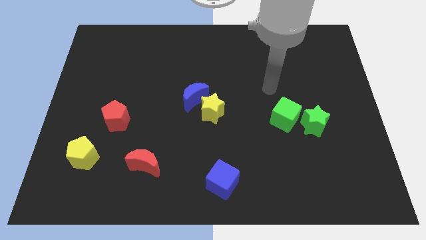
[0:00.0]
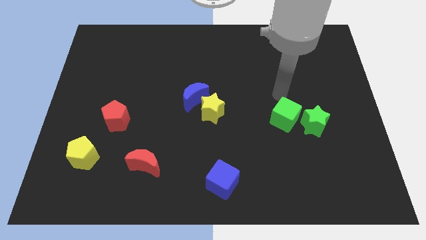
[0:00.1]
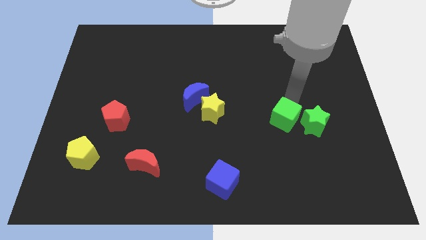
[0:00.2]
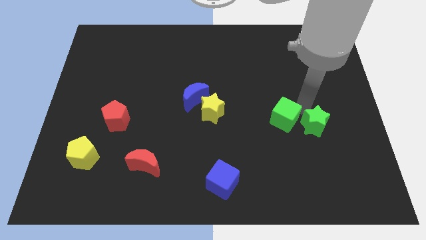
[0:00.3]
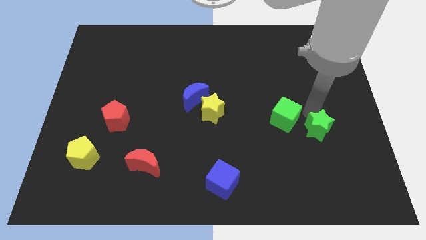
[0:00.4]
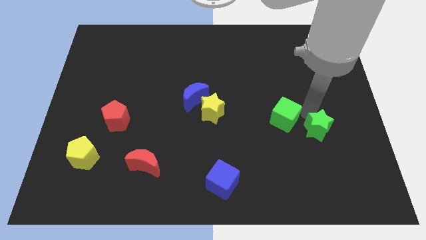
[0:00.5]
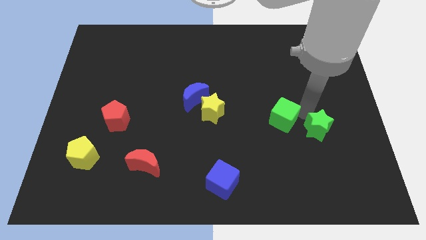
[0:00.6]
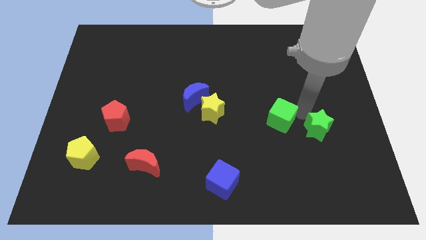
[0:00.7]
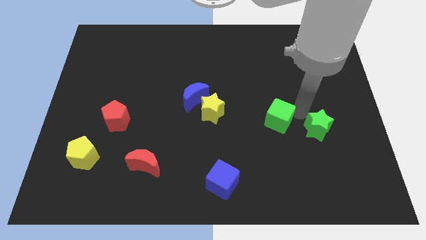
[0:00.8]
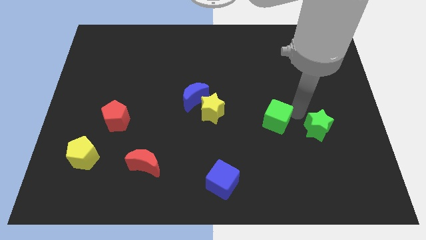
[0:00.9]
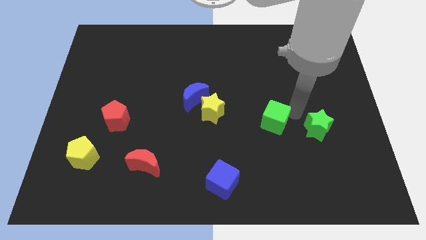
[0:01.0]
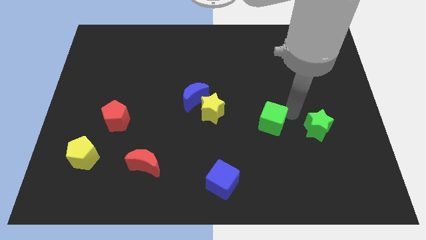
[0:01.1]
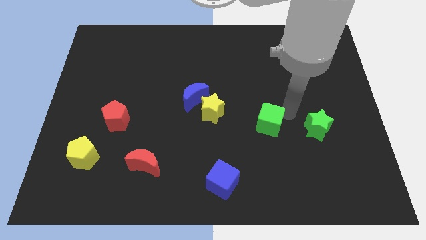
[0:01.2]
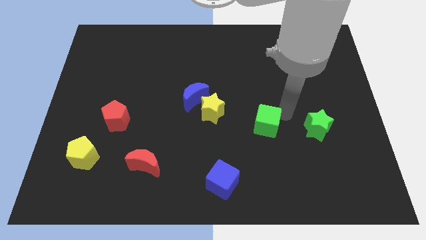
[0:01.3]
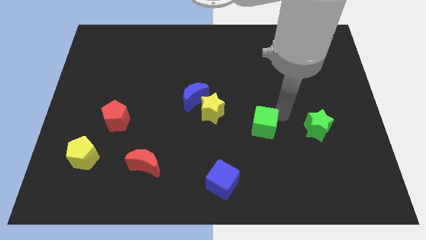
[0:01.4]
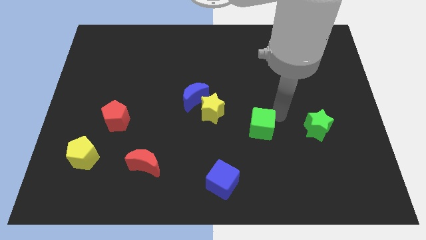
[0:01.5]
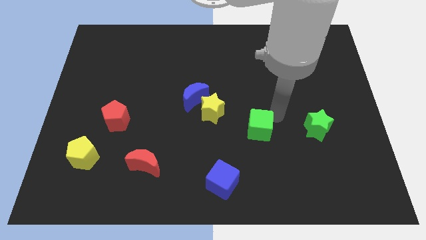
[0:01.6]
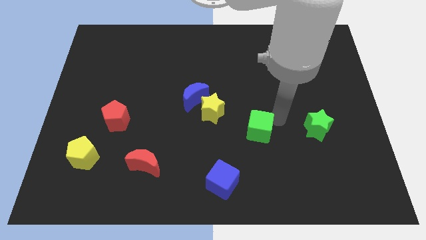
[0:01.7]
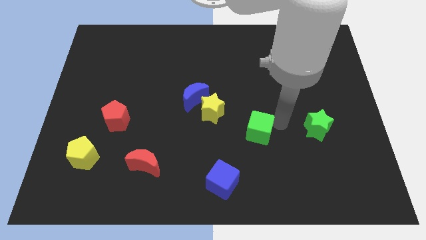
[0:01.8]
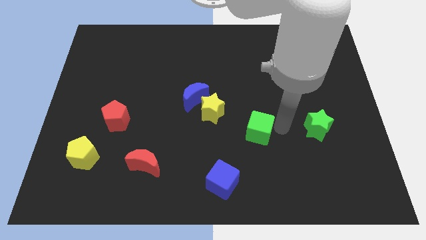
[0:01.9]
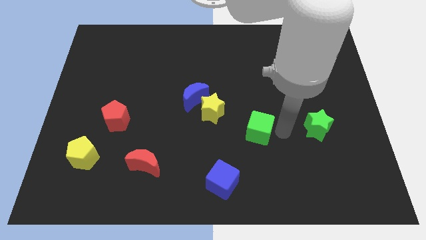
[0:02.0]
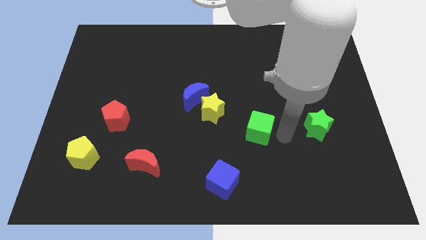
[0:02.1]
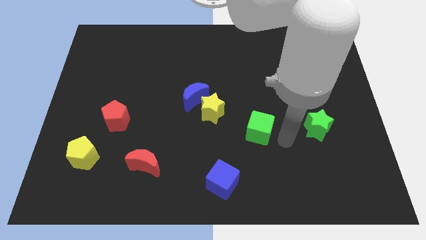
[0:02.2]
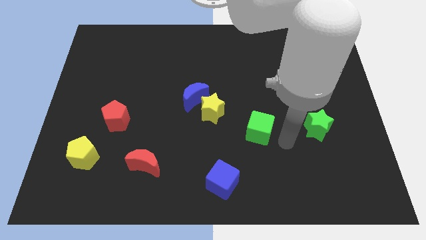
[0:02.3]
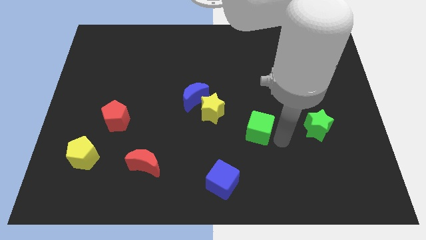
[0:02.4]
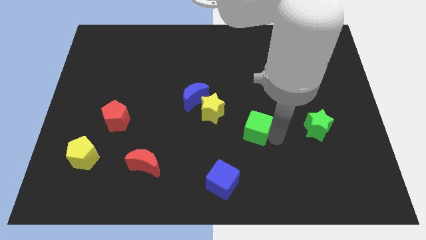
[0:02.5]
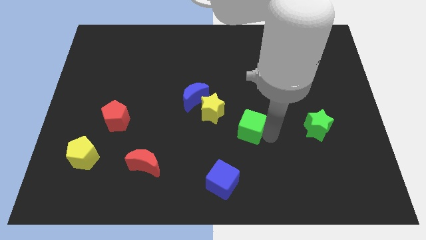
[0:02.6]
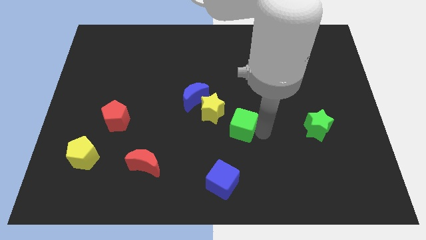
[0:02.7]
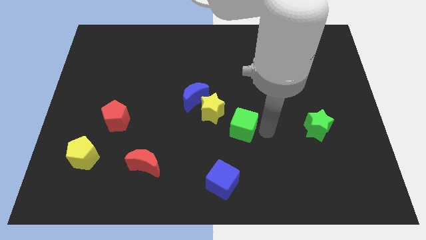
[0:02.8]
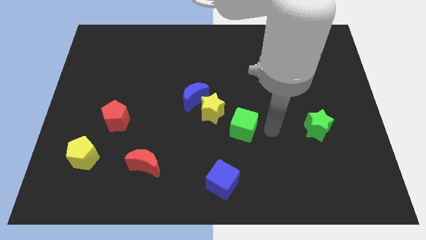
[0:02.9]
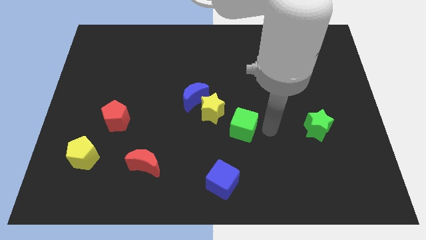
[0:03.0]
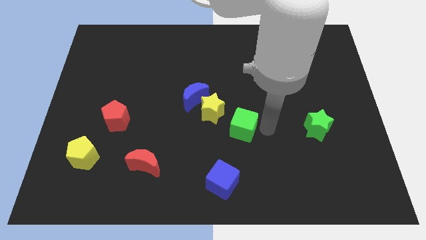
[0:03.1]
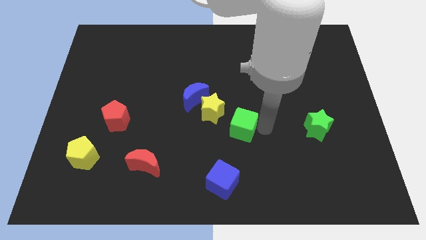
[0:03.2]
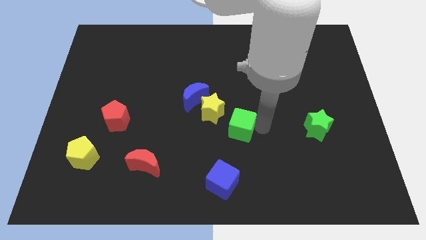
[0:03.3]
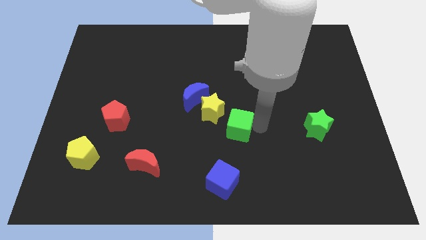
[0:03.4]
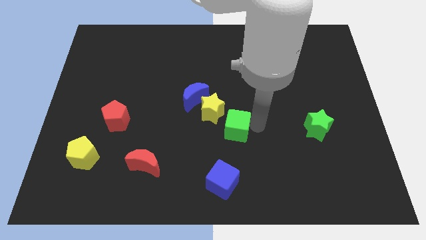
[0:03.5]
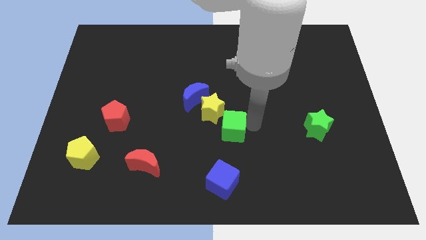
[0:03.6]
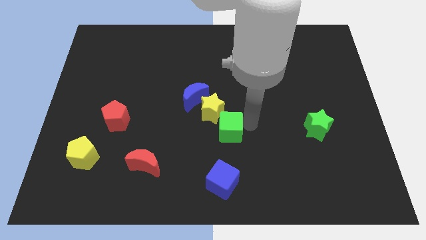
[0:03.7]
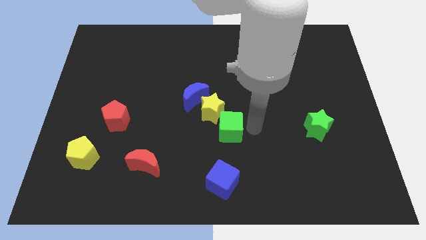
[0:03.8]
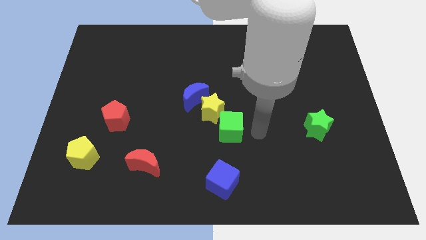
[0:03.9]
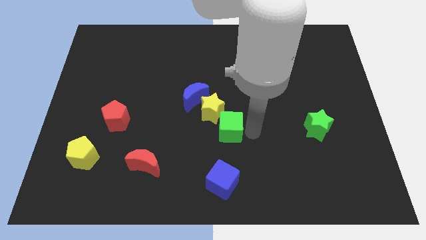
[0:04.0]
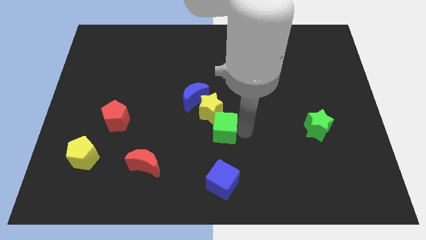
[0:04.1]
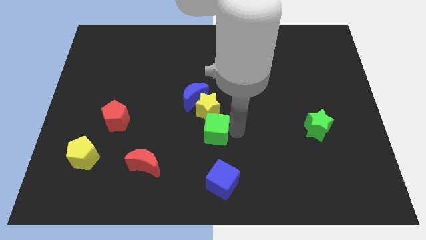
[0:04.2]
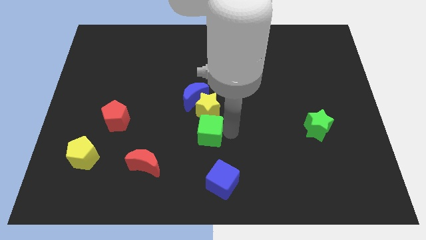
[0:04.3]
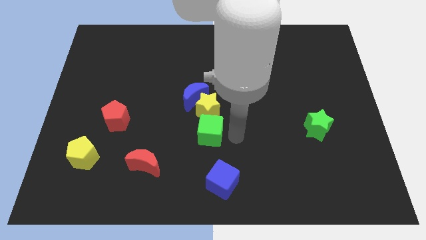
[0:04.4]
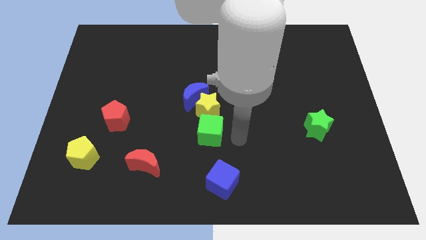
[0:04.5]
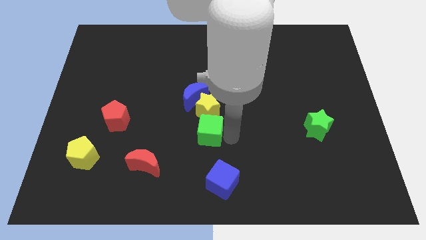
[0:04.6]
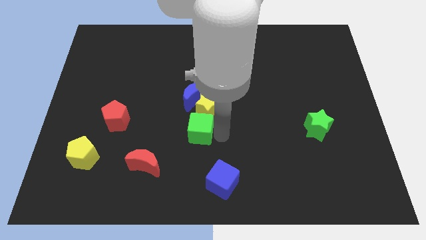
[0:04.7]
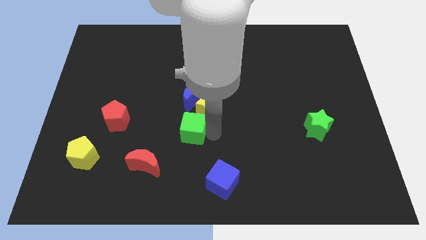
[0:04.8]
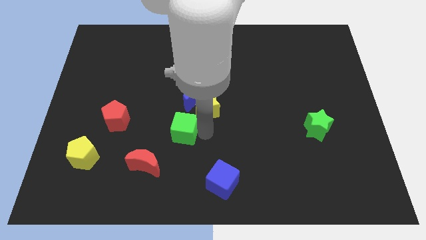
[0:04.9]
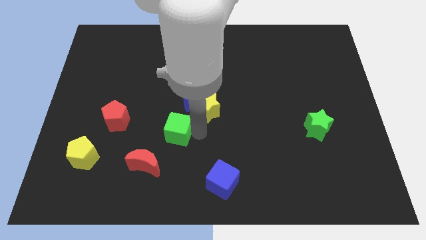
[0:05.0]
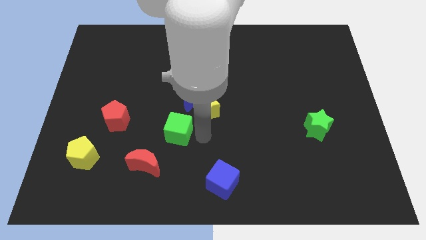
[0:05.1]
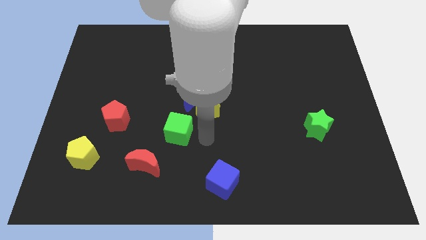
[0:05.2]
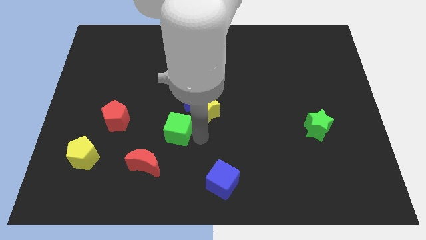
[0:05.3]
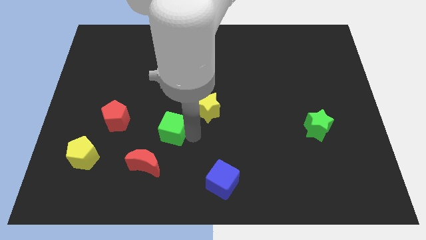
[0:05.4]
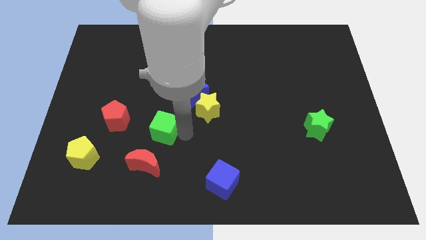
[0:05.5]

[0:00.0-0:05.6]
push the green cube to the top side of the red moon
